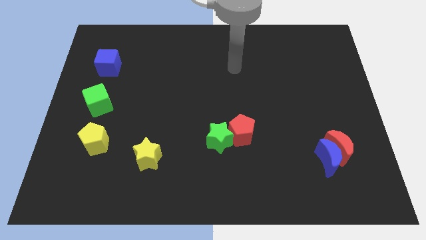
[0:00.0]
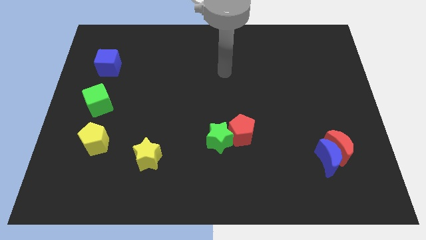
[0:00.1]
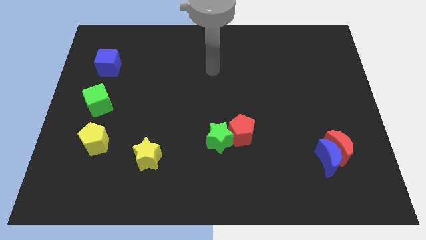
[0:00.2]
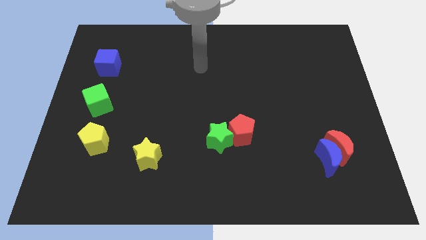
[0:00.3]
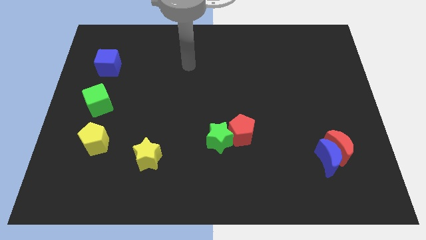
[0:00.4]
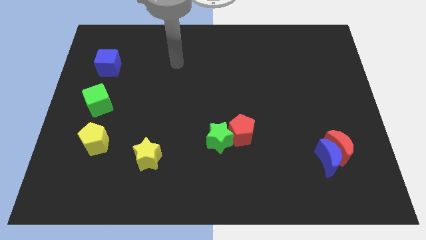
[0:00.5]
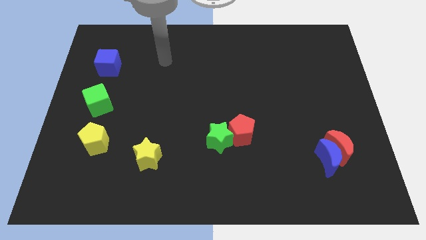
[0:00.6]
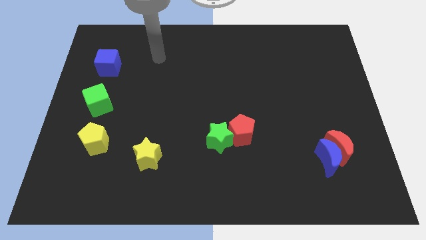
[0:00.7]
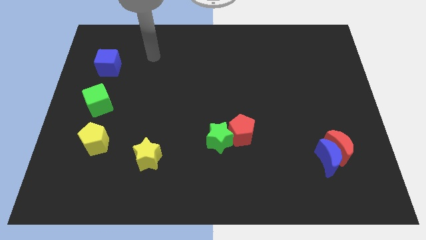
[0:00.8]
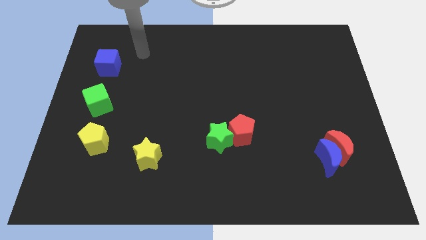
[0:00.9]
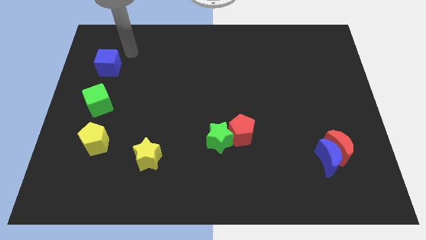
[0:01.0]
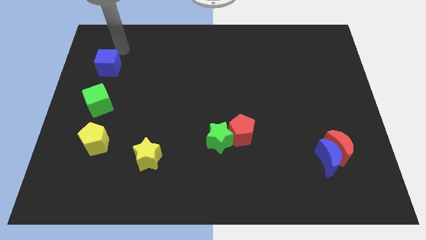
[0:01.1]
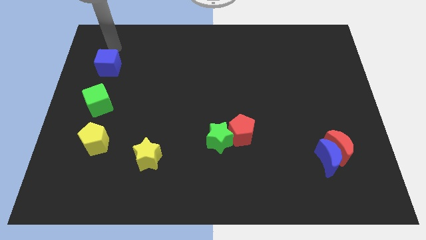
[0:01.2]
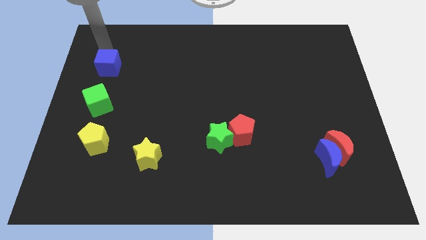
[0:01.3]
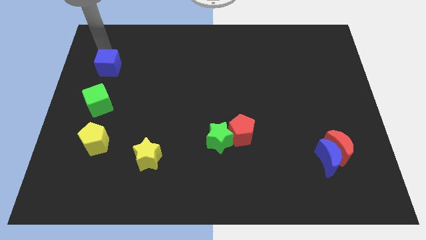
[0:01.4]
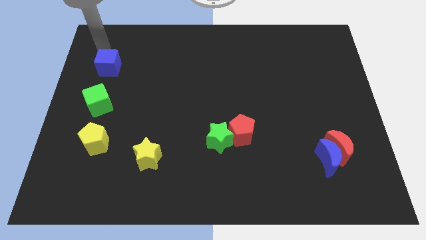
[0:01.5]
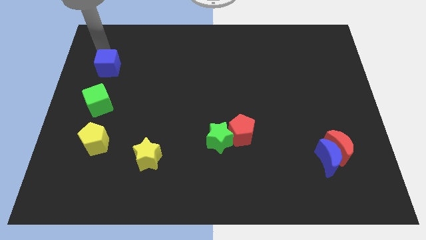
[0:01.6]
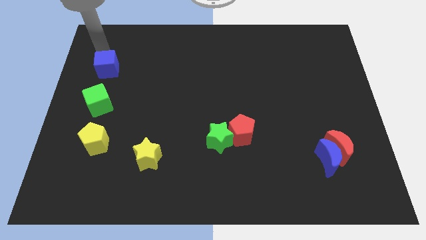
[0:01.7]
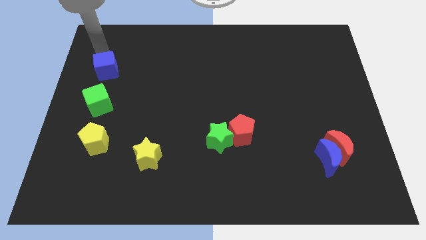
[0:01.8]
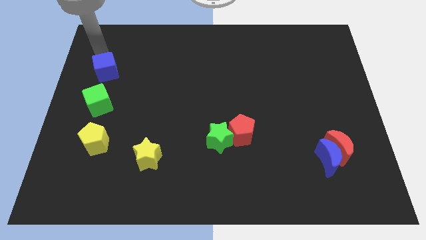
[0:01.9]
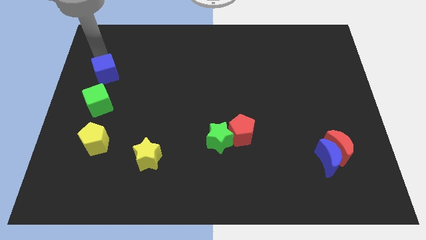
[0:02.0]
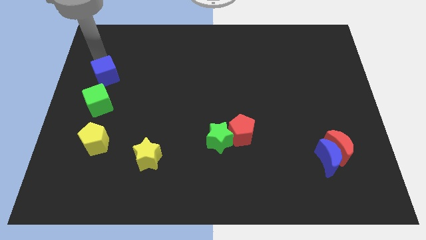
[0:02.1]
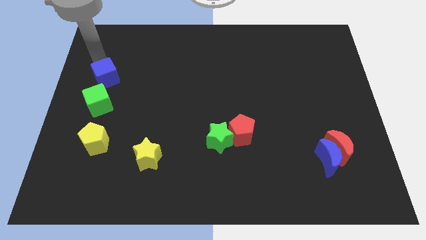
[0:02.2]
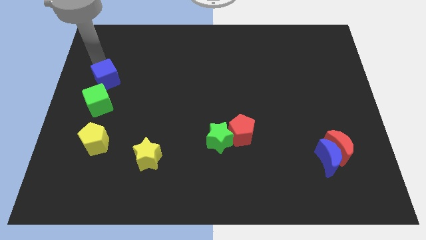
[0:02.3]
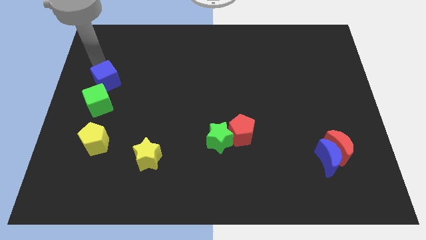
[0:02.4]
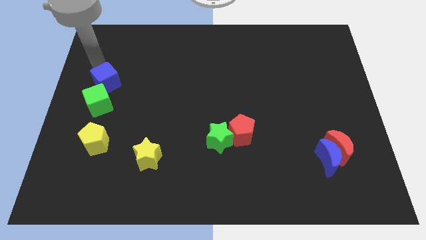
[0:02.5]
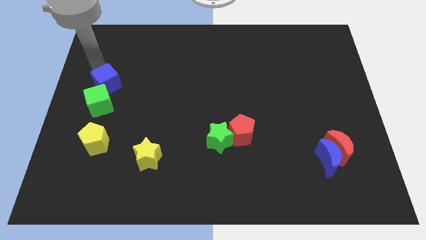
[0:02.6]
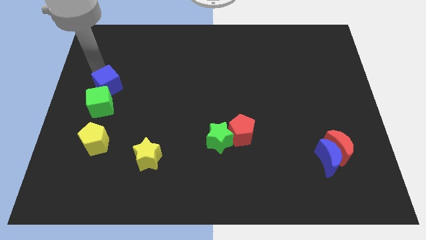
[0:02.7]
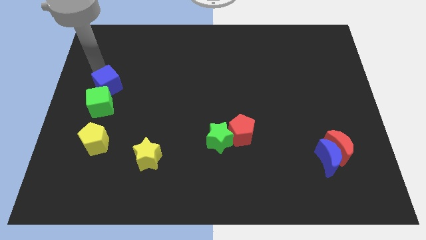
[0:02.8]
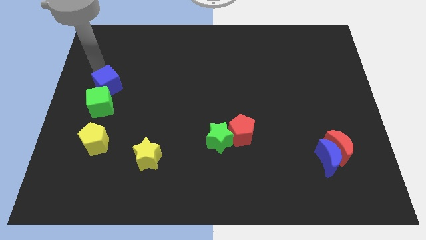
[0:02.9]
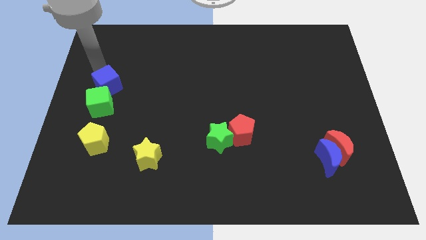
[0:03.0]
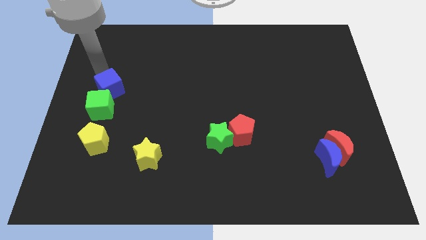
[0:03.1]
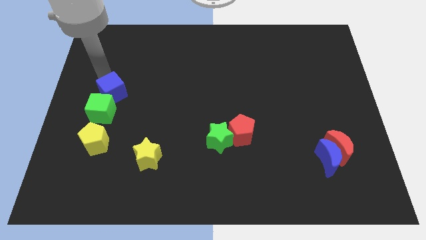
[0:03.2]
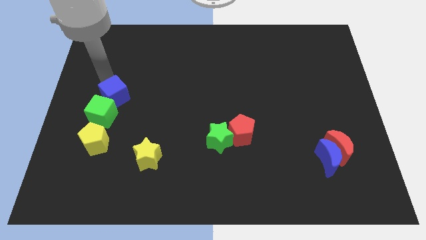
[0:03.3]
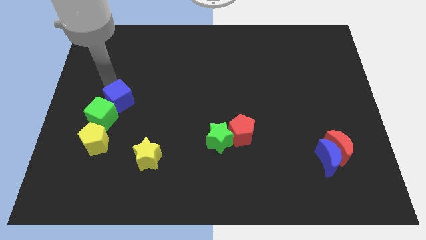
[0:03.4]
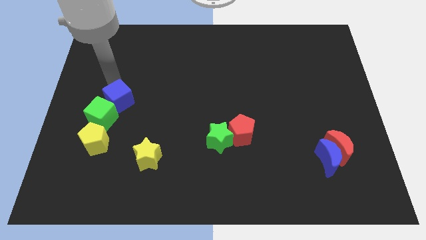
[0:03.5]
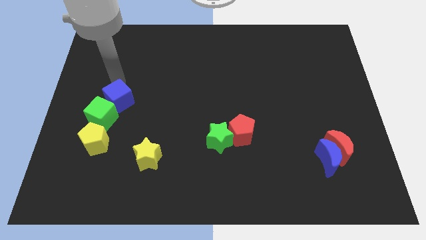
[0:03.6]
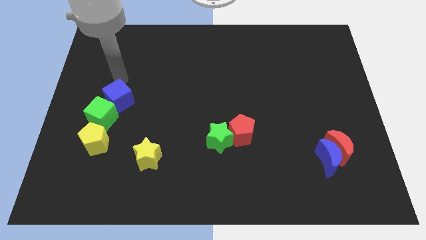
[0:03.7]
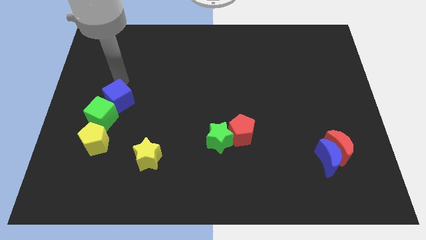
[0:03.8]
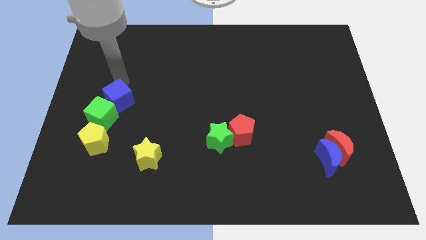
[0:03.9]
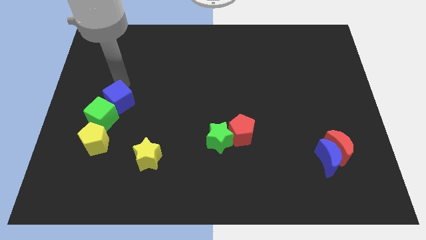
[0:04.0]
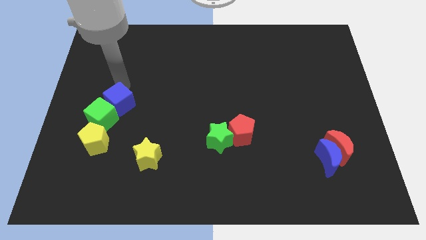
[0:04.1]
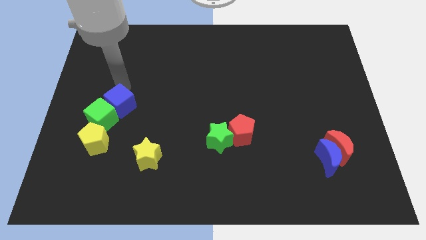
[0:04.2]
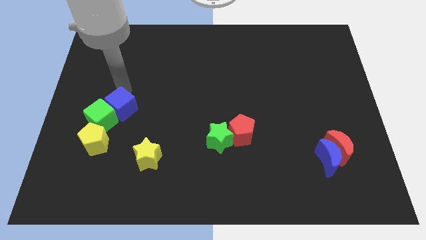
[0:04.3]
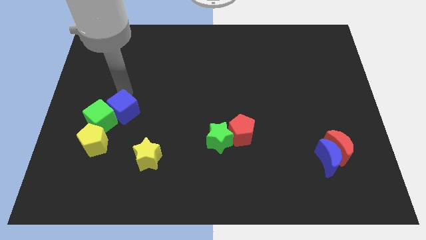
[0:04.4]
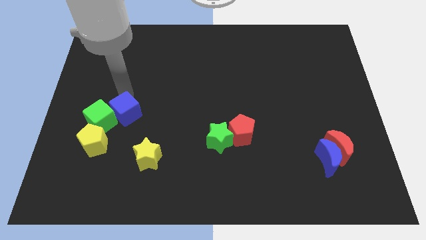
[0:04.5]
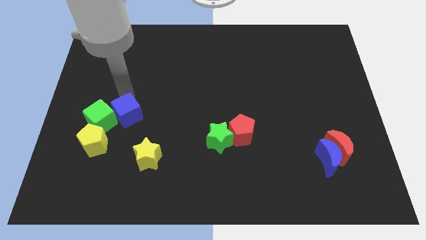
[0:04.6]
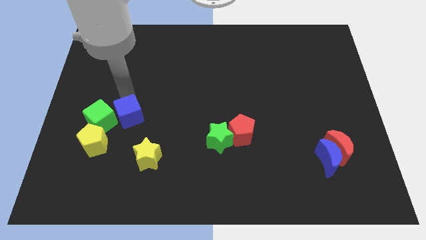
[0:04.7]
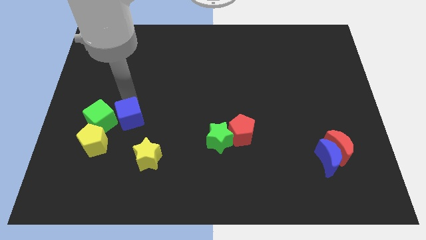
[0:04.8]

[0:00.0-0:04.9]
slide the blue cube diagonally up and to the left of the yellow star

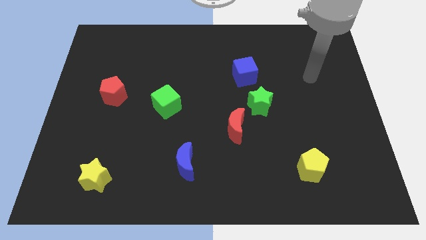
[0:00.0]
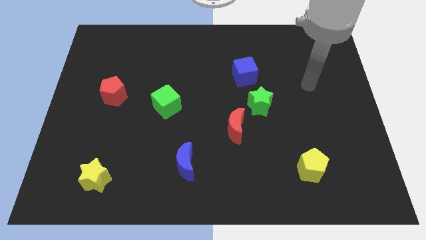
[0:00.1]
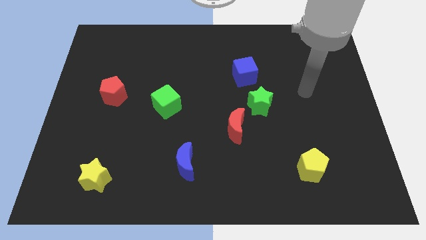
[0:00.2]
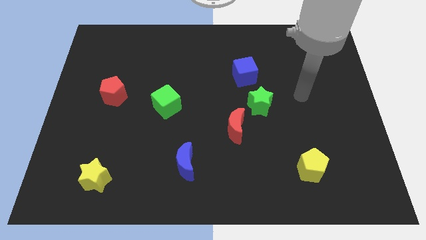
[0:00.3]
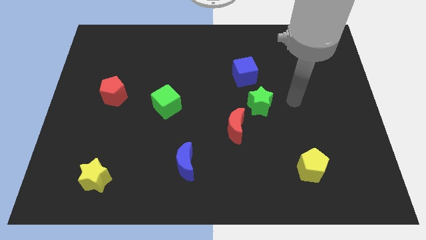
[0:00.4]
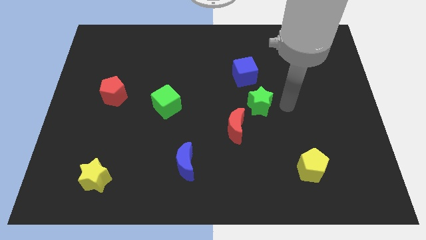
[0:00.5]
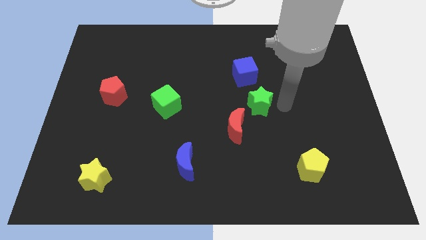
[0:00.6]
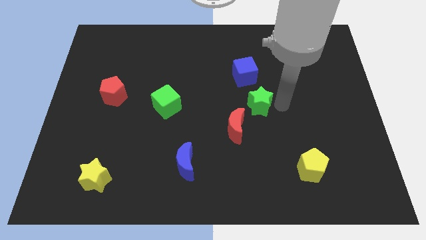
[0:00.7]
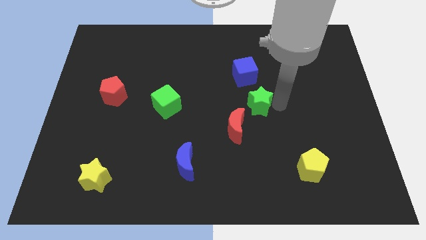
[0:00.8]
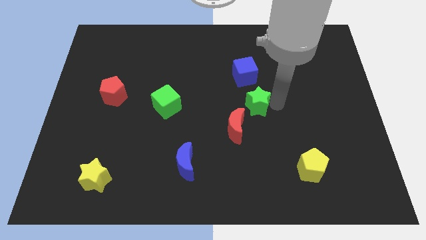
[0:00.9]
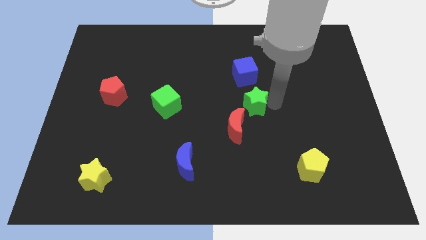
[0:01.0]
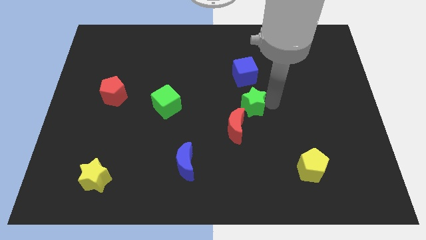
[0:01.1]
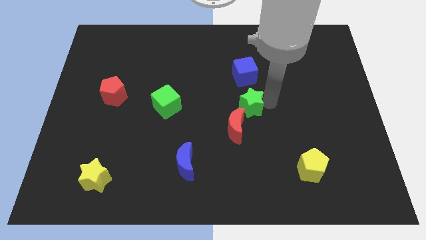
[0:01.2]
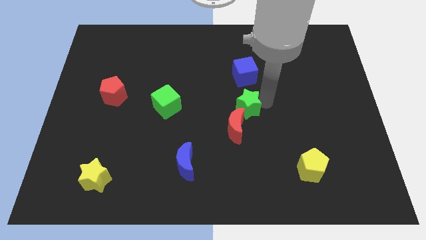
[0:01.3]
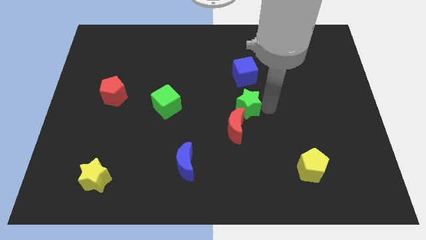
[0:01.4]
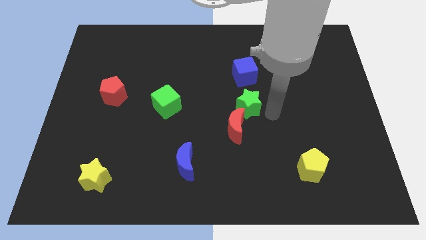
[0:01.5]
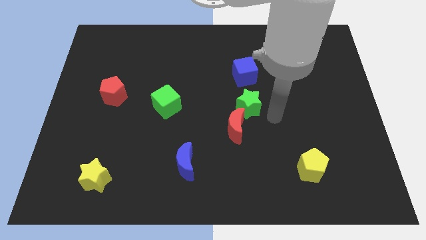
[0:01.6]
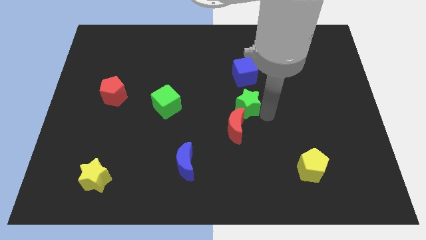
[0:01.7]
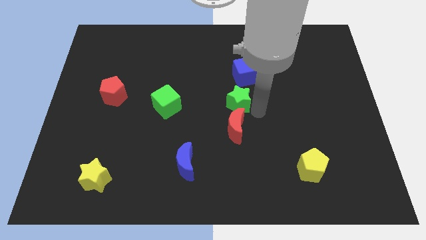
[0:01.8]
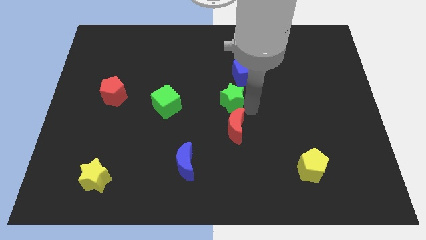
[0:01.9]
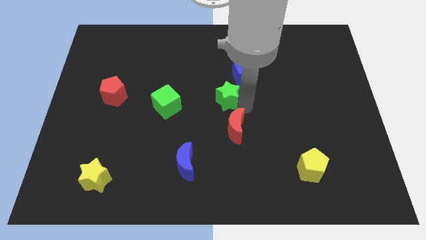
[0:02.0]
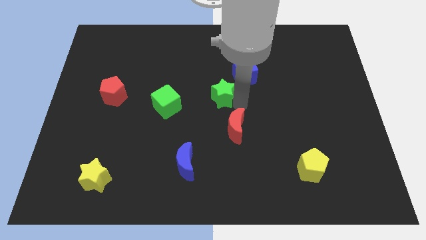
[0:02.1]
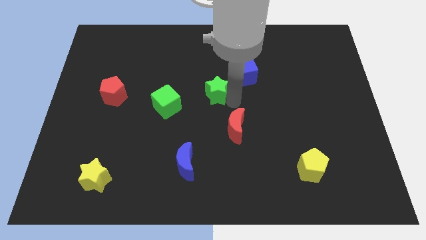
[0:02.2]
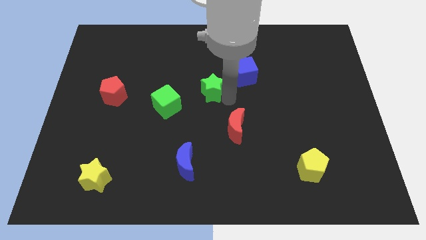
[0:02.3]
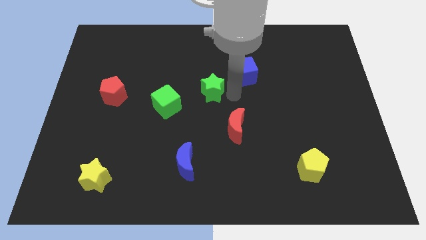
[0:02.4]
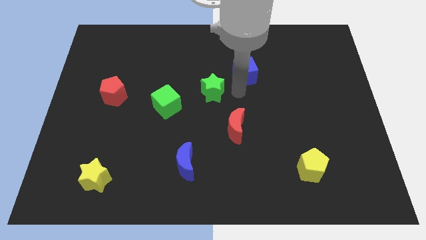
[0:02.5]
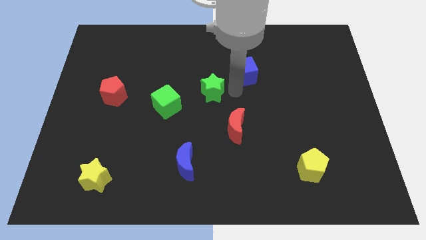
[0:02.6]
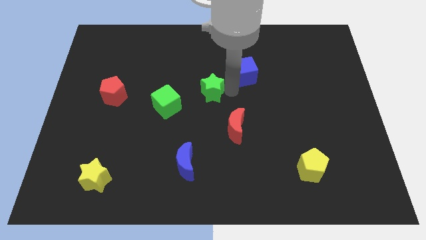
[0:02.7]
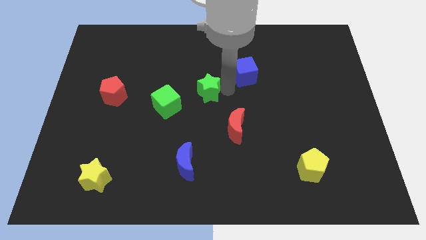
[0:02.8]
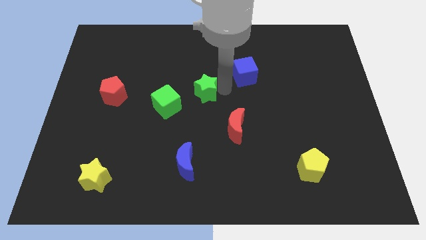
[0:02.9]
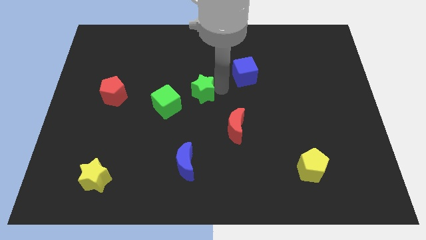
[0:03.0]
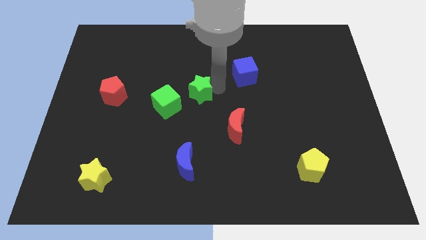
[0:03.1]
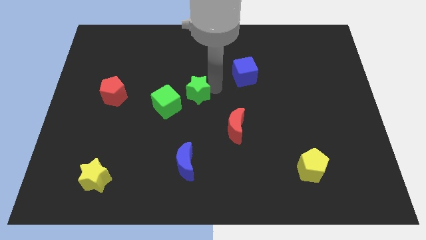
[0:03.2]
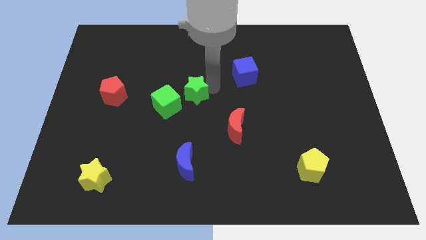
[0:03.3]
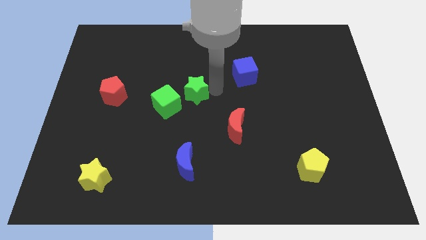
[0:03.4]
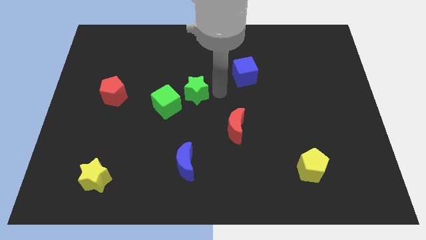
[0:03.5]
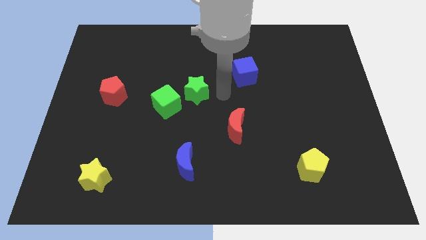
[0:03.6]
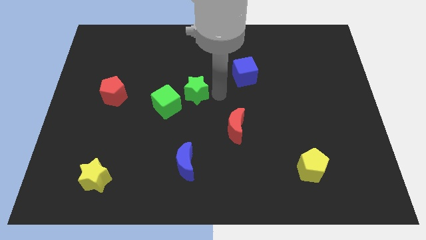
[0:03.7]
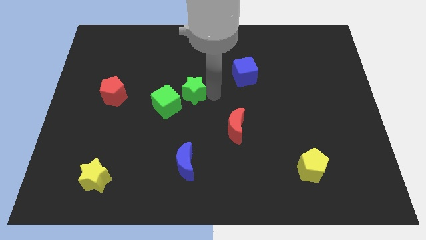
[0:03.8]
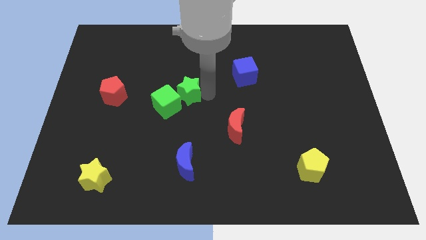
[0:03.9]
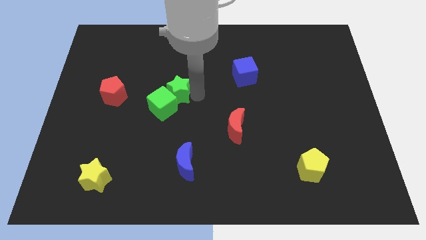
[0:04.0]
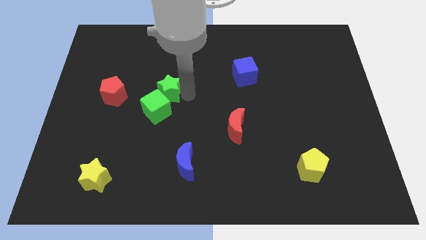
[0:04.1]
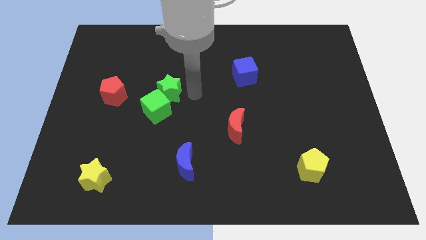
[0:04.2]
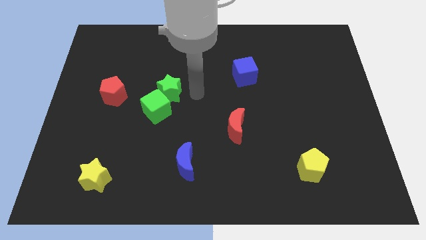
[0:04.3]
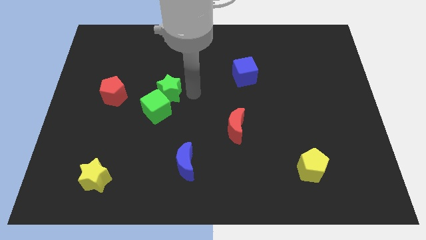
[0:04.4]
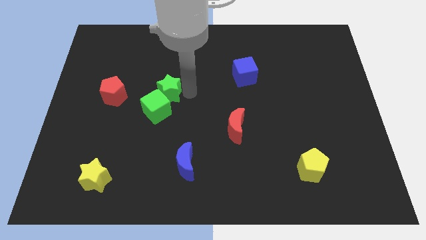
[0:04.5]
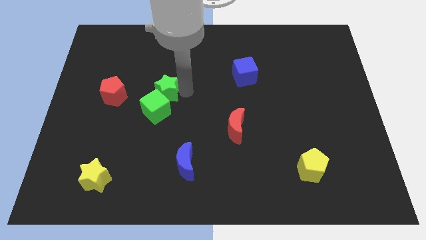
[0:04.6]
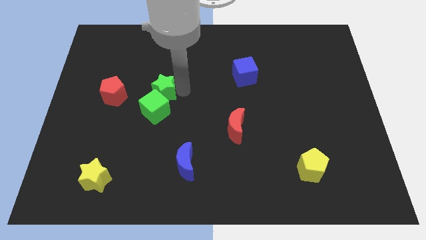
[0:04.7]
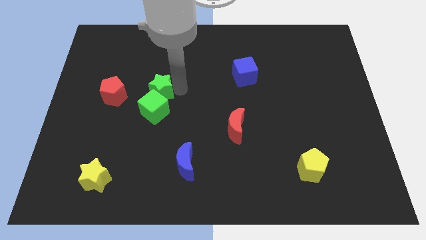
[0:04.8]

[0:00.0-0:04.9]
move the green star to the top left of the green cube
